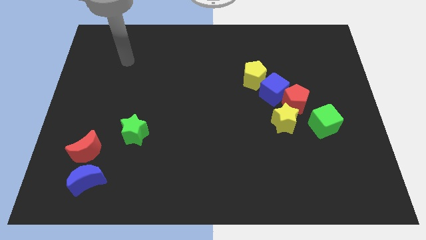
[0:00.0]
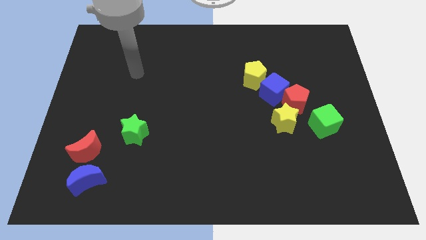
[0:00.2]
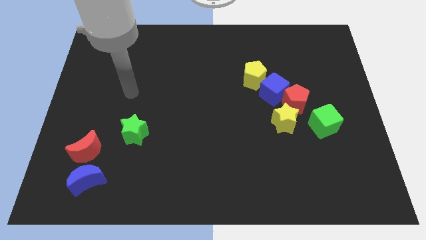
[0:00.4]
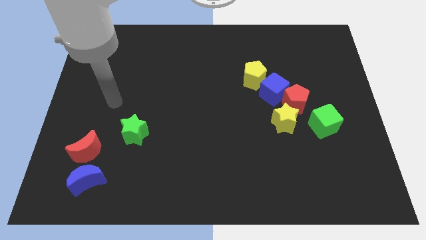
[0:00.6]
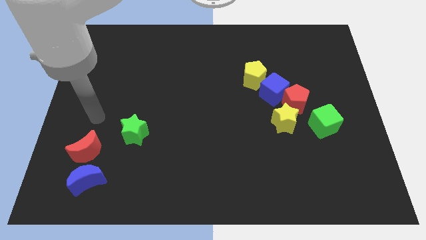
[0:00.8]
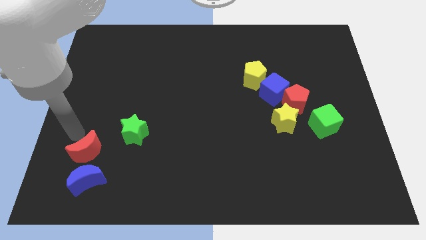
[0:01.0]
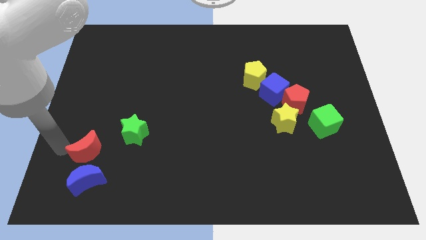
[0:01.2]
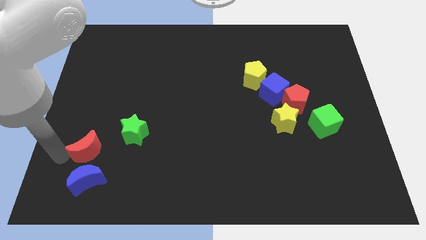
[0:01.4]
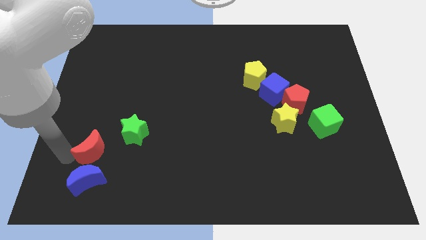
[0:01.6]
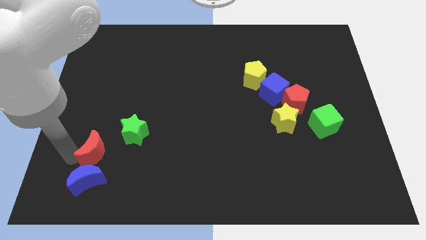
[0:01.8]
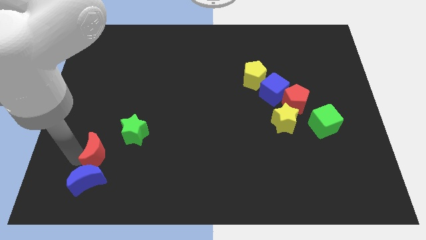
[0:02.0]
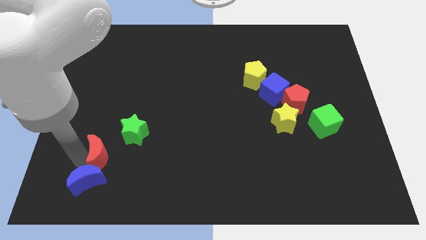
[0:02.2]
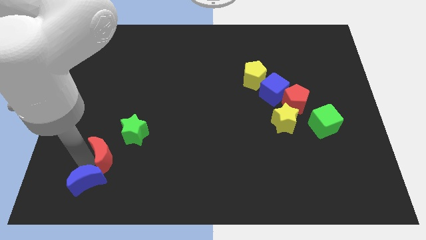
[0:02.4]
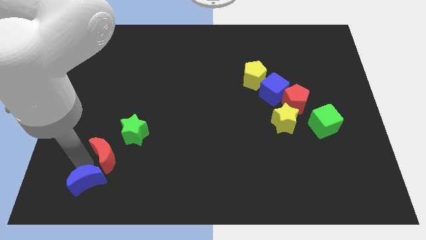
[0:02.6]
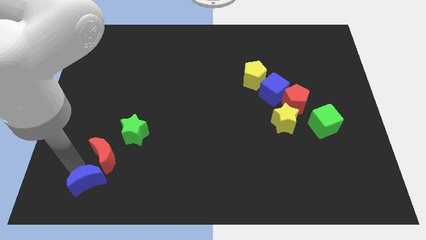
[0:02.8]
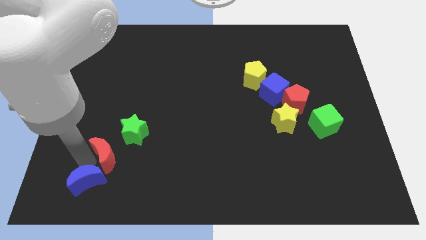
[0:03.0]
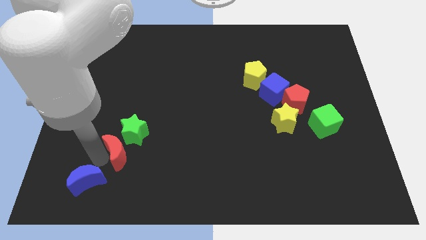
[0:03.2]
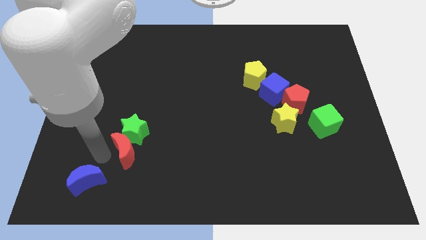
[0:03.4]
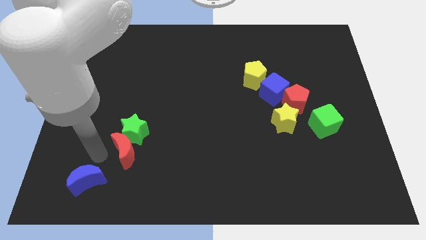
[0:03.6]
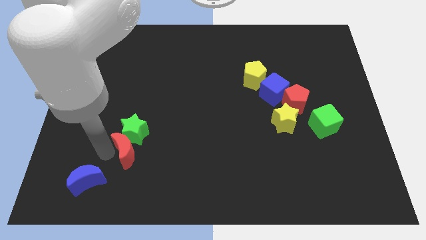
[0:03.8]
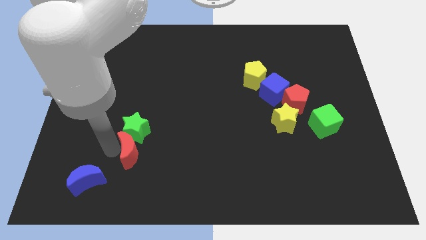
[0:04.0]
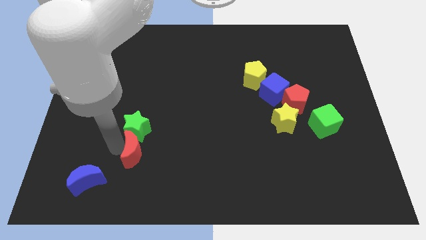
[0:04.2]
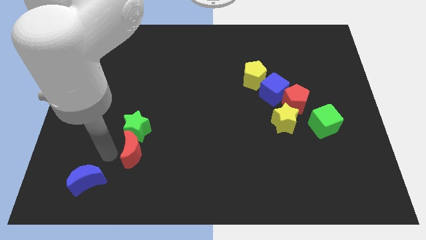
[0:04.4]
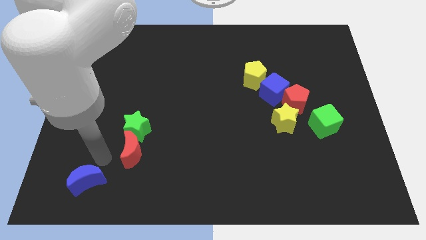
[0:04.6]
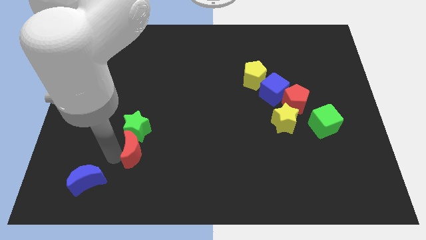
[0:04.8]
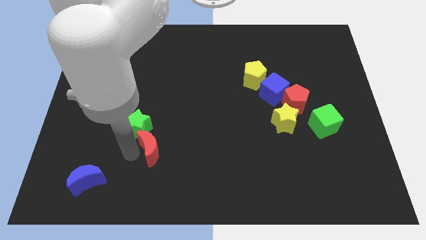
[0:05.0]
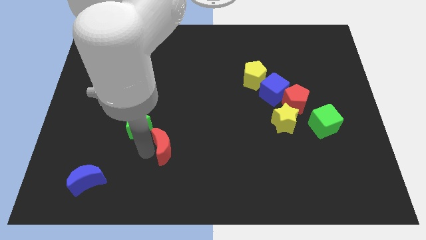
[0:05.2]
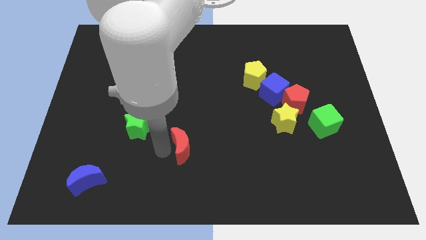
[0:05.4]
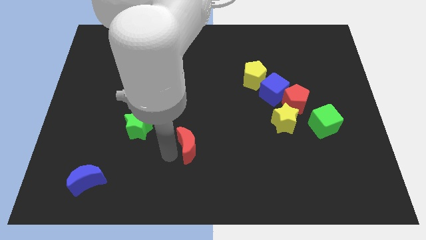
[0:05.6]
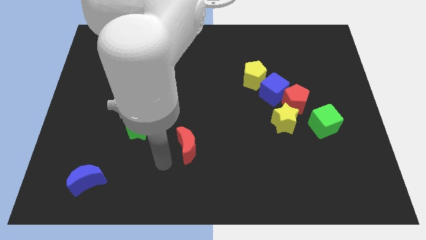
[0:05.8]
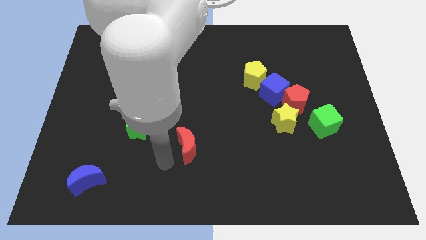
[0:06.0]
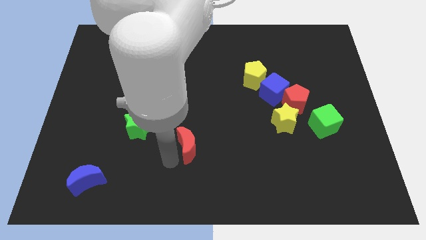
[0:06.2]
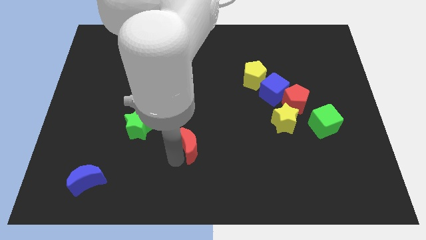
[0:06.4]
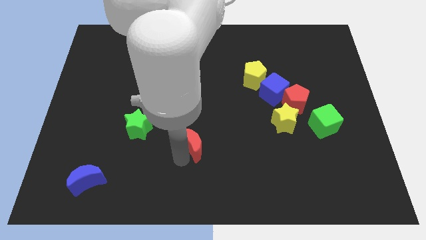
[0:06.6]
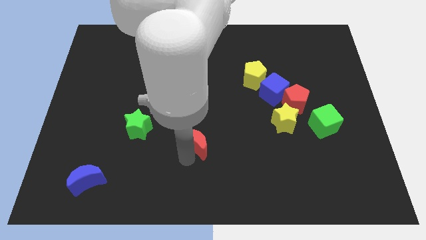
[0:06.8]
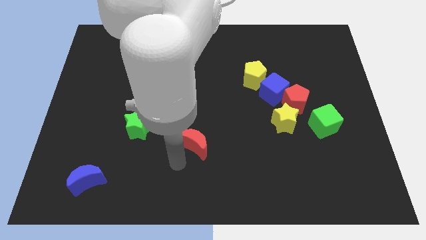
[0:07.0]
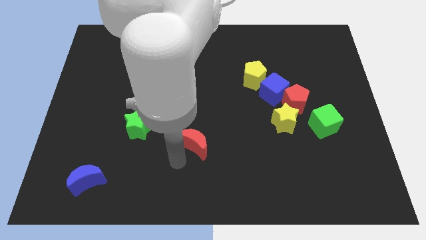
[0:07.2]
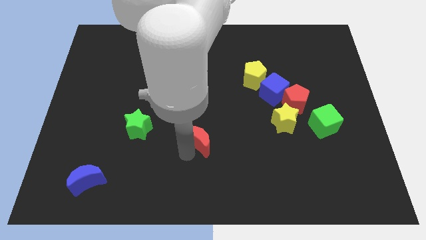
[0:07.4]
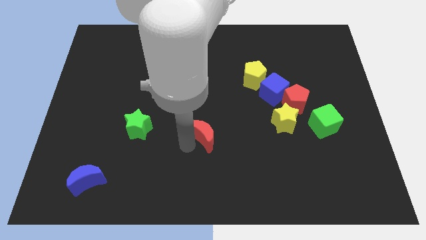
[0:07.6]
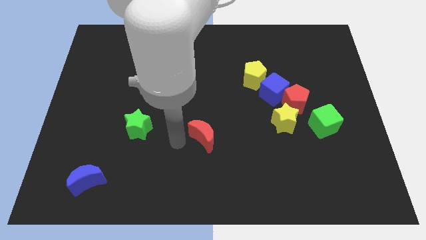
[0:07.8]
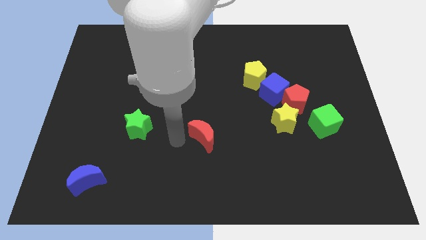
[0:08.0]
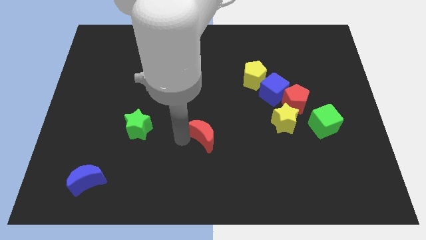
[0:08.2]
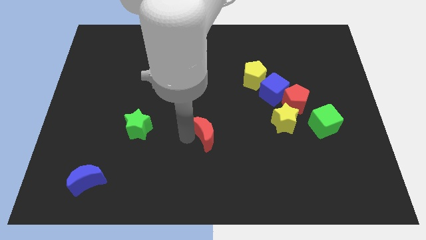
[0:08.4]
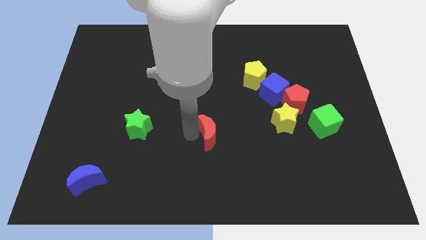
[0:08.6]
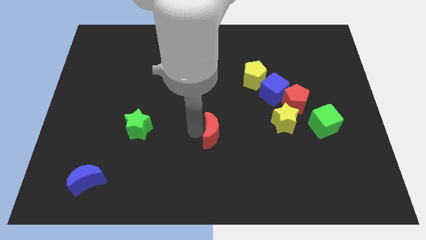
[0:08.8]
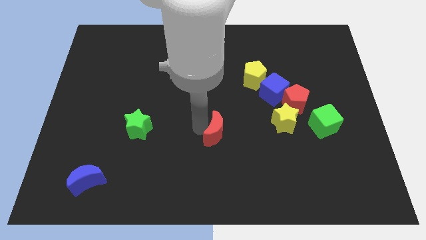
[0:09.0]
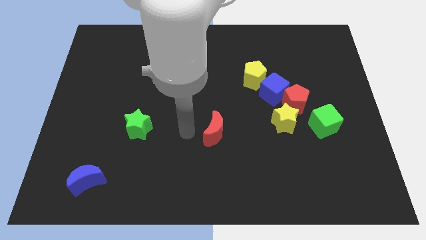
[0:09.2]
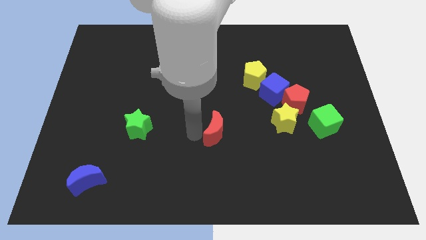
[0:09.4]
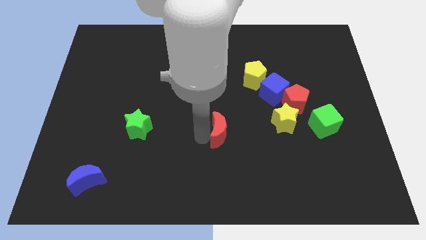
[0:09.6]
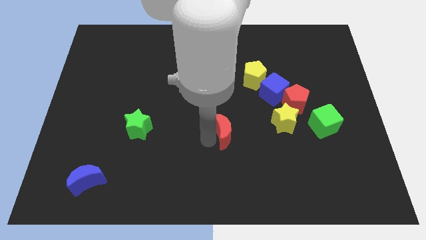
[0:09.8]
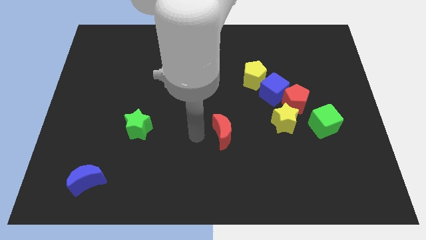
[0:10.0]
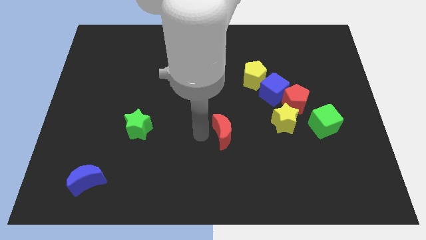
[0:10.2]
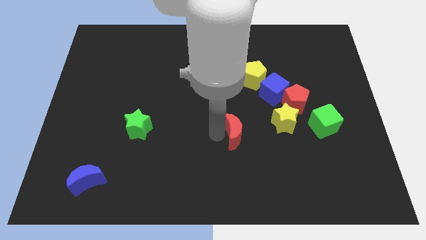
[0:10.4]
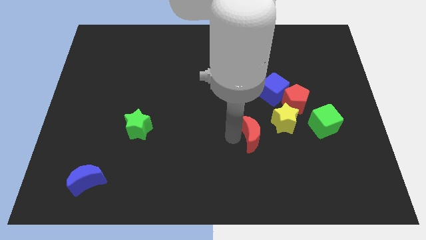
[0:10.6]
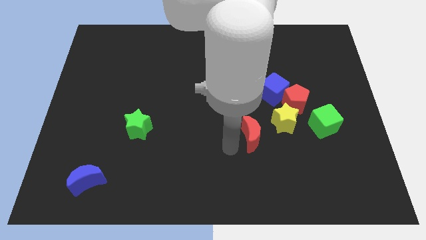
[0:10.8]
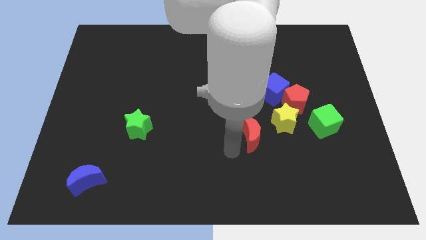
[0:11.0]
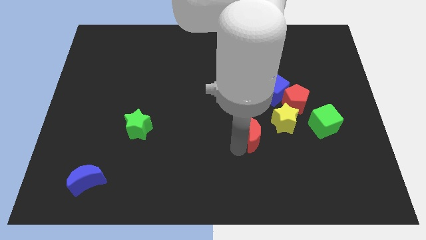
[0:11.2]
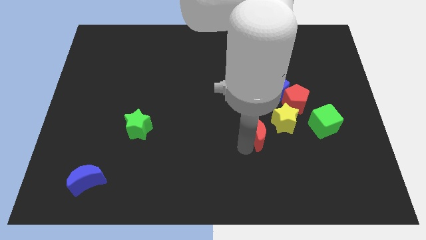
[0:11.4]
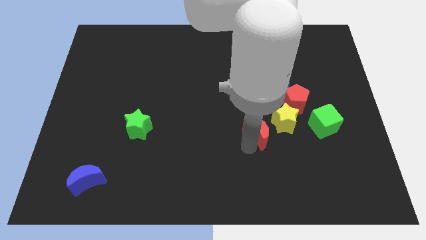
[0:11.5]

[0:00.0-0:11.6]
move the red moon to the bottom left side of the red pentagon

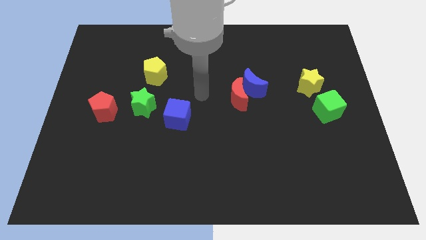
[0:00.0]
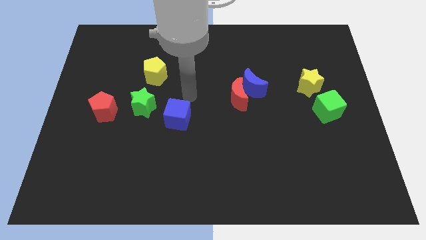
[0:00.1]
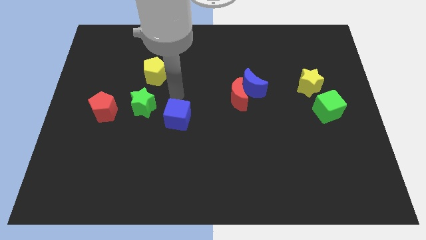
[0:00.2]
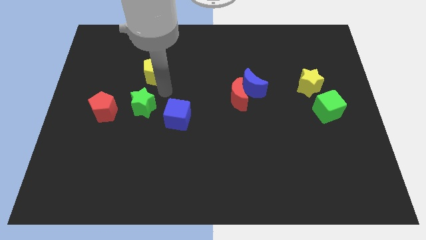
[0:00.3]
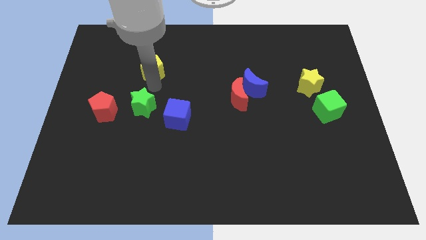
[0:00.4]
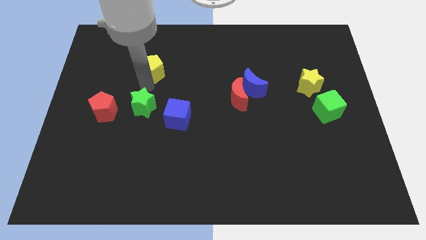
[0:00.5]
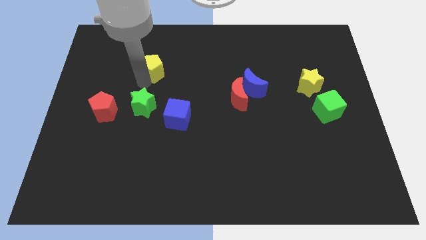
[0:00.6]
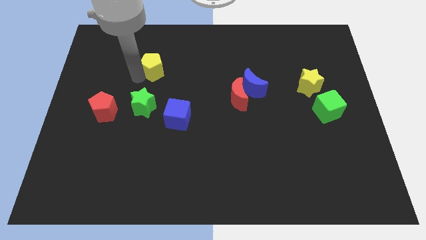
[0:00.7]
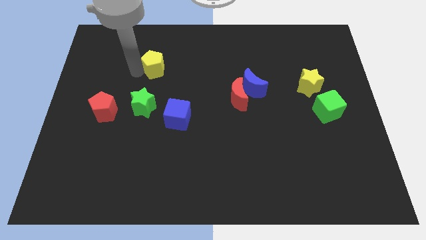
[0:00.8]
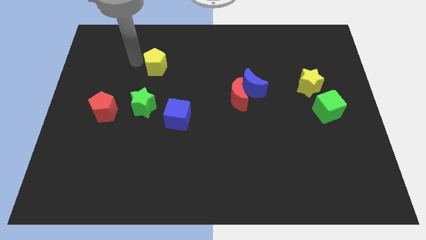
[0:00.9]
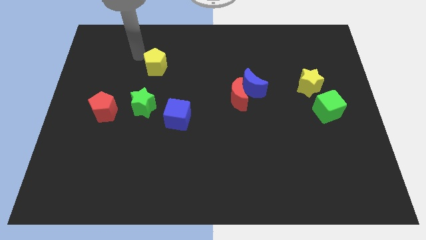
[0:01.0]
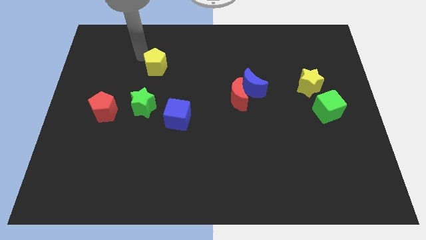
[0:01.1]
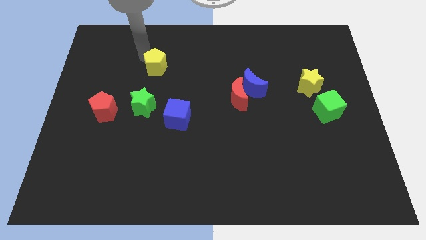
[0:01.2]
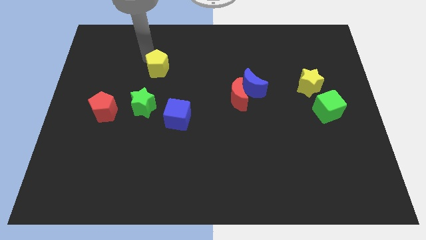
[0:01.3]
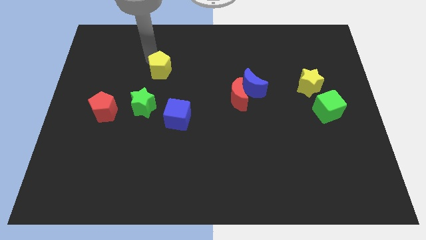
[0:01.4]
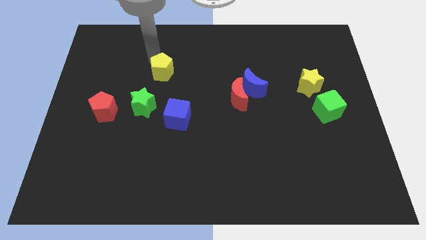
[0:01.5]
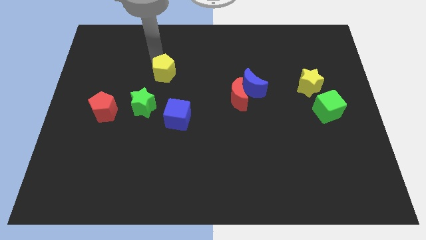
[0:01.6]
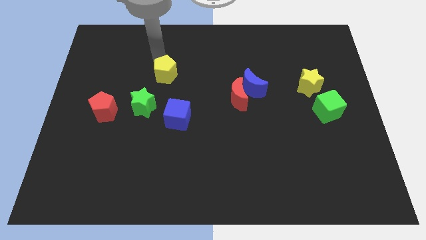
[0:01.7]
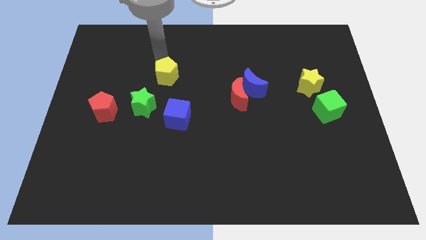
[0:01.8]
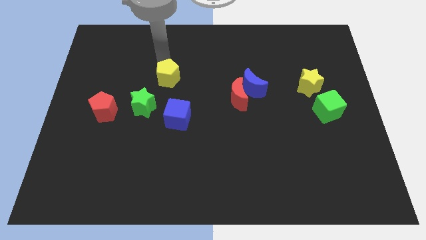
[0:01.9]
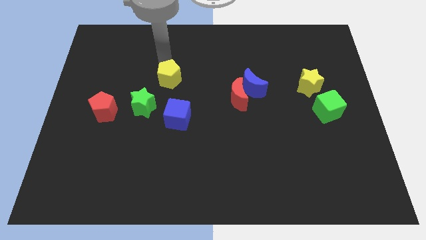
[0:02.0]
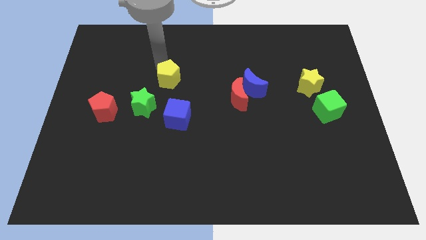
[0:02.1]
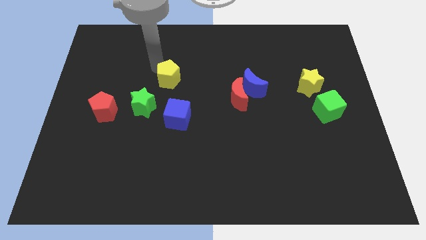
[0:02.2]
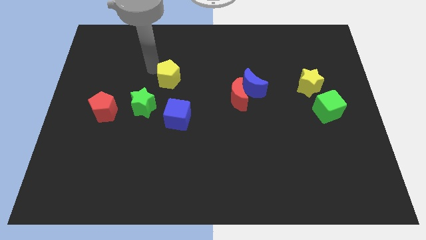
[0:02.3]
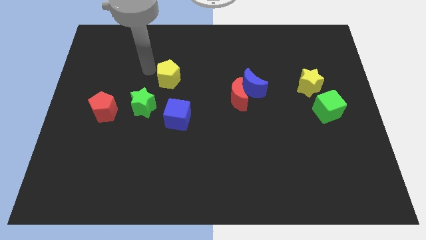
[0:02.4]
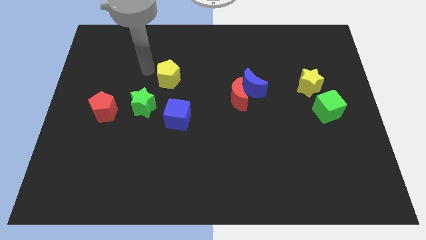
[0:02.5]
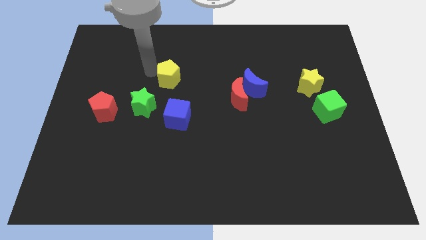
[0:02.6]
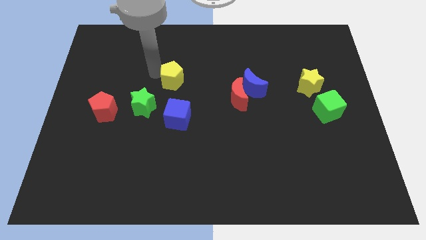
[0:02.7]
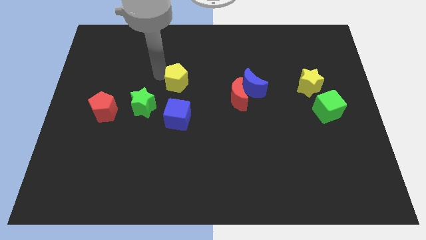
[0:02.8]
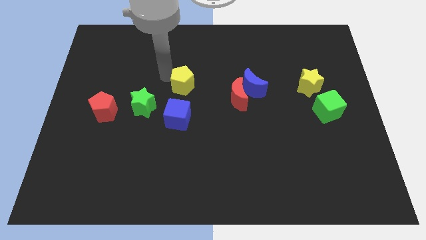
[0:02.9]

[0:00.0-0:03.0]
put the yellow pentagon to the left side of the red moon
